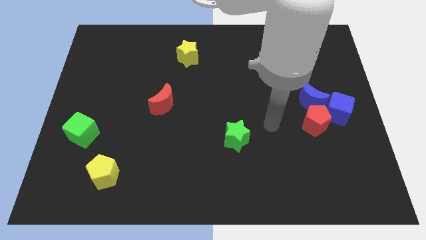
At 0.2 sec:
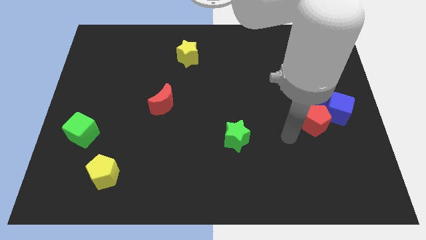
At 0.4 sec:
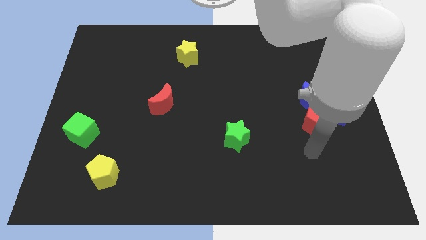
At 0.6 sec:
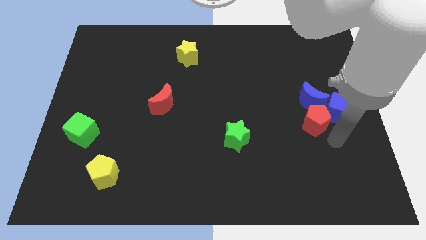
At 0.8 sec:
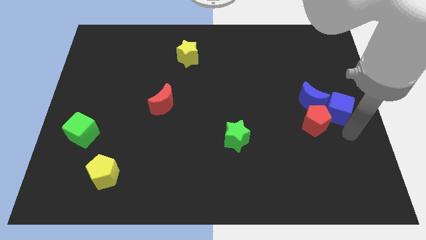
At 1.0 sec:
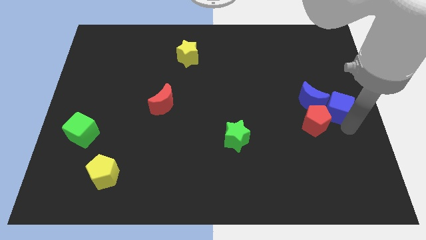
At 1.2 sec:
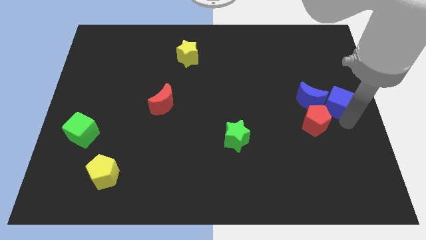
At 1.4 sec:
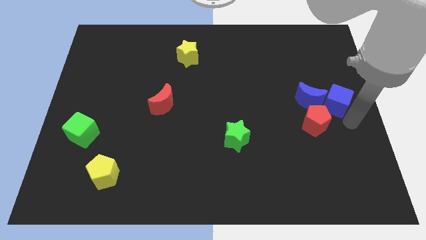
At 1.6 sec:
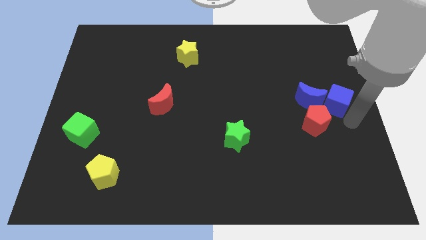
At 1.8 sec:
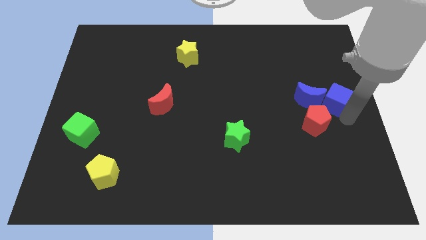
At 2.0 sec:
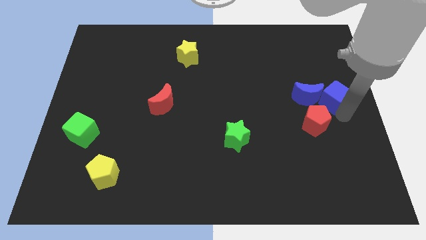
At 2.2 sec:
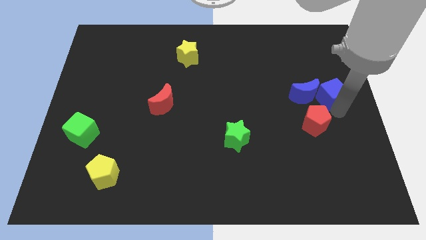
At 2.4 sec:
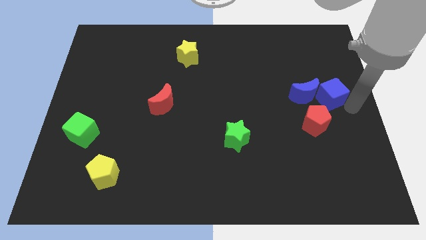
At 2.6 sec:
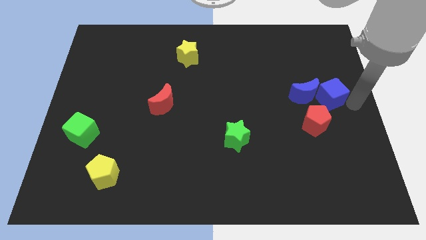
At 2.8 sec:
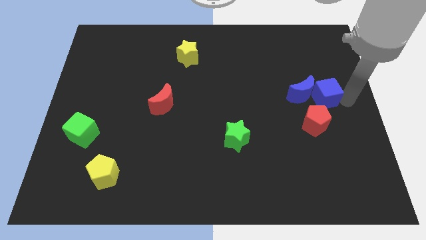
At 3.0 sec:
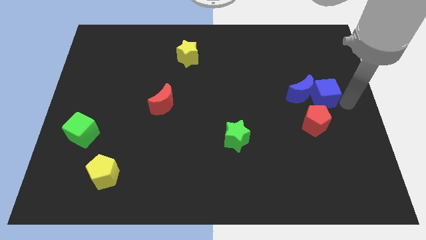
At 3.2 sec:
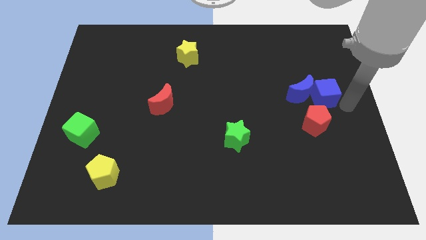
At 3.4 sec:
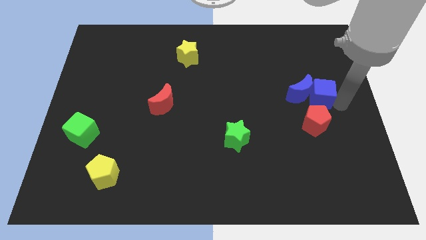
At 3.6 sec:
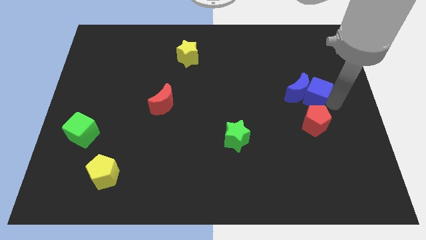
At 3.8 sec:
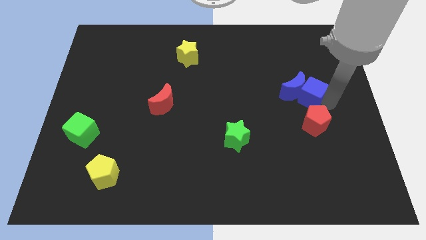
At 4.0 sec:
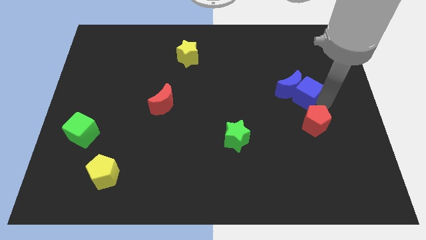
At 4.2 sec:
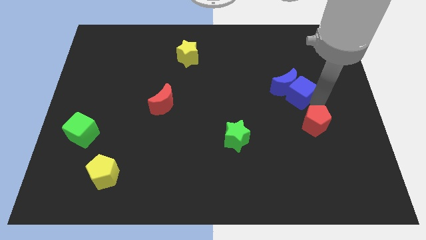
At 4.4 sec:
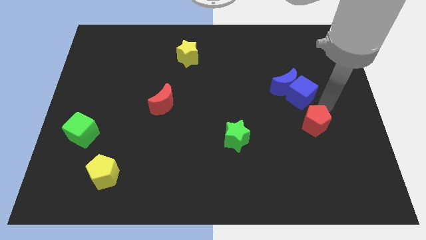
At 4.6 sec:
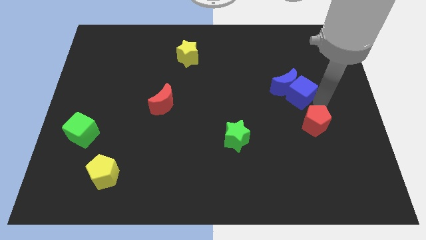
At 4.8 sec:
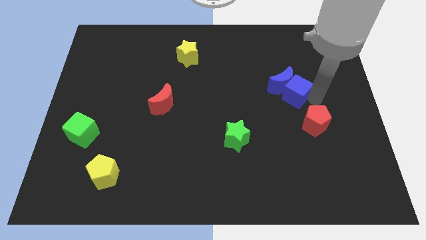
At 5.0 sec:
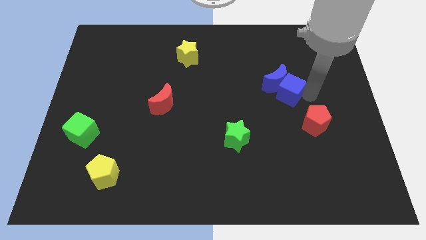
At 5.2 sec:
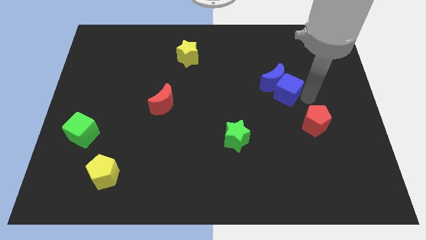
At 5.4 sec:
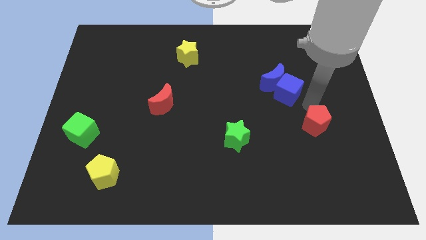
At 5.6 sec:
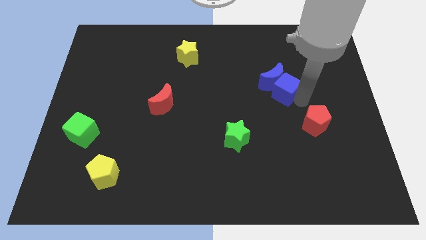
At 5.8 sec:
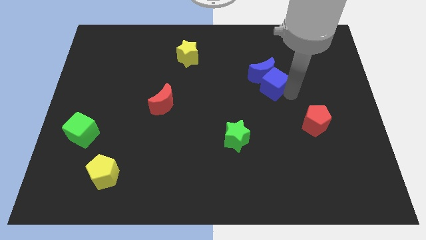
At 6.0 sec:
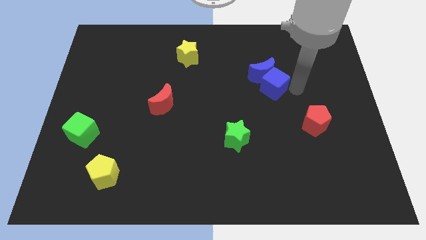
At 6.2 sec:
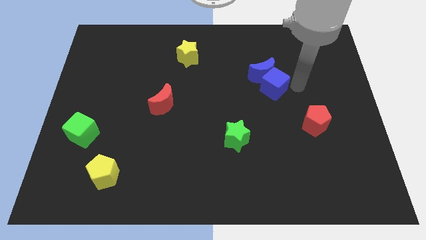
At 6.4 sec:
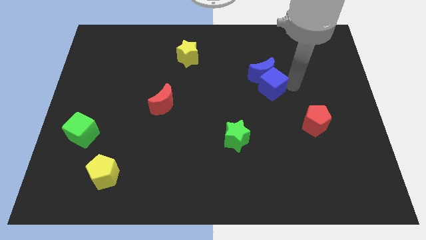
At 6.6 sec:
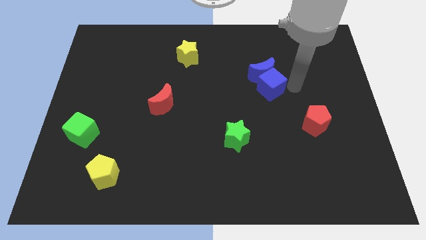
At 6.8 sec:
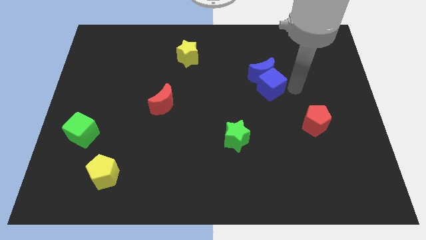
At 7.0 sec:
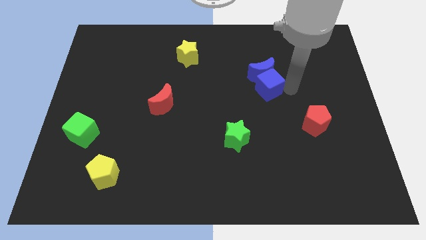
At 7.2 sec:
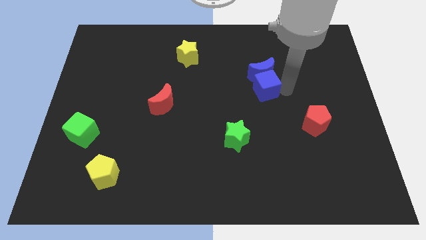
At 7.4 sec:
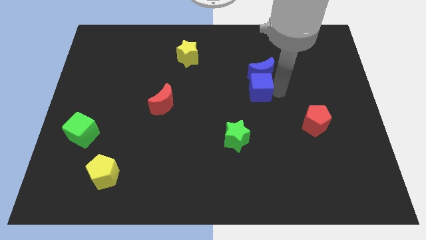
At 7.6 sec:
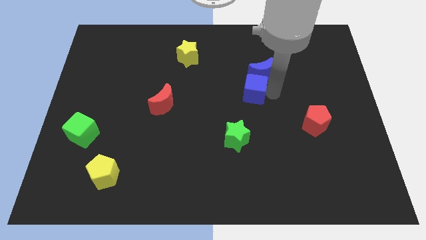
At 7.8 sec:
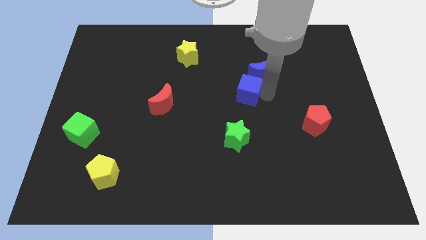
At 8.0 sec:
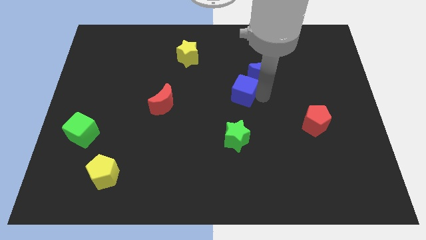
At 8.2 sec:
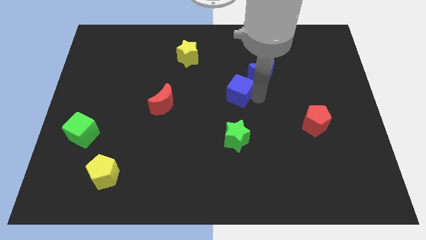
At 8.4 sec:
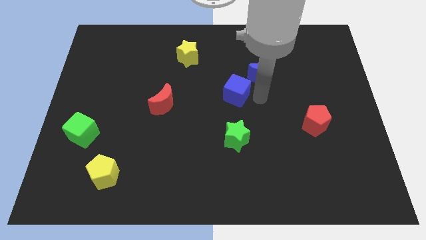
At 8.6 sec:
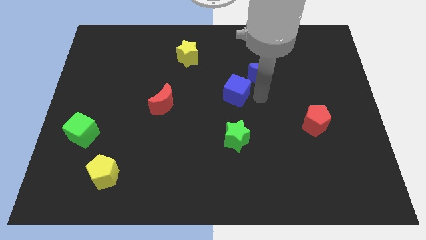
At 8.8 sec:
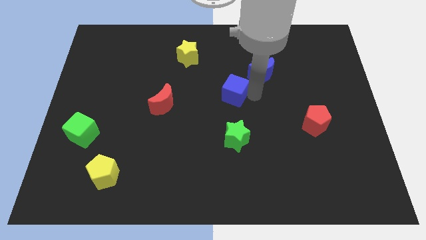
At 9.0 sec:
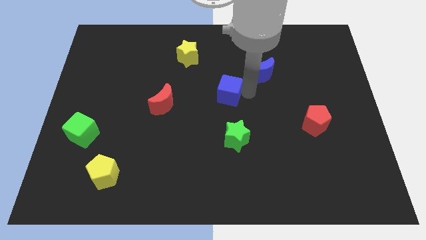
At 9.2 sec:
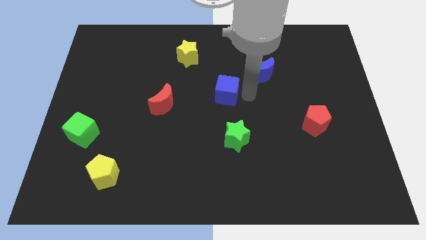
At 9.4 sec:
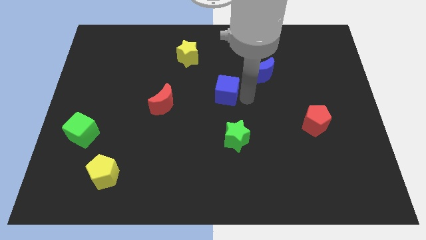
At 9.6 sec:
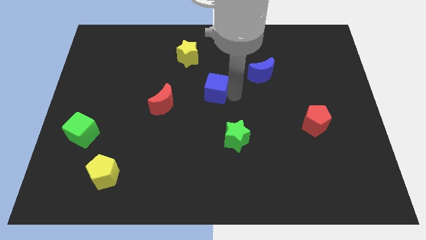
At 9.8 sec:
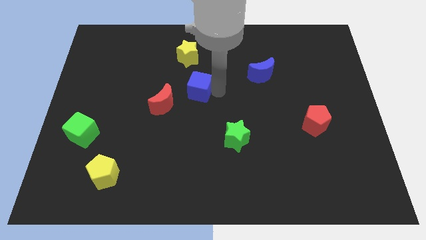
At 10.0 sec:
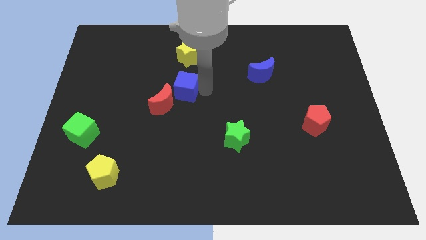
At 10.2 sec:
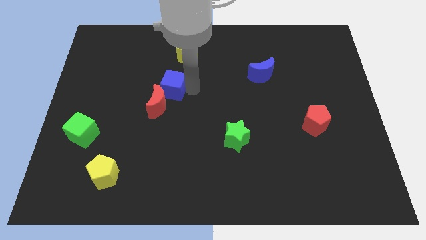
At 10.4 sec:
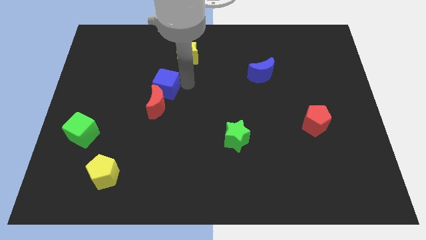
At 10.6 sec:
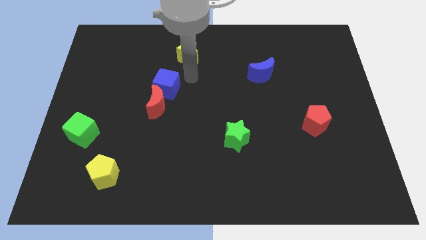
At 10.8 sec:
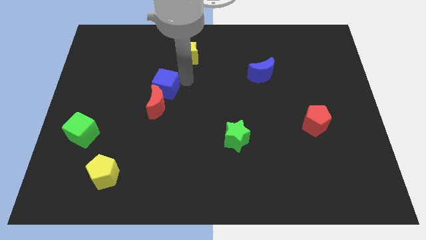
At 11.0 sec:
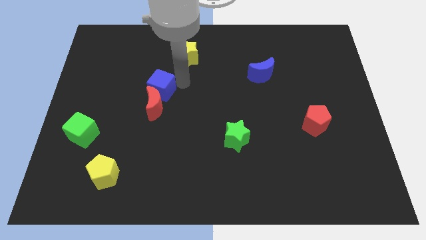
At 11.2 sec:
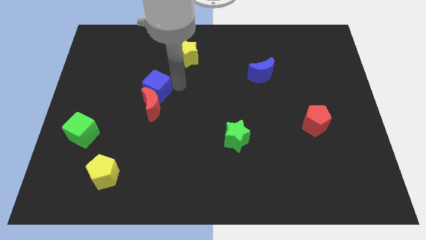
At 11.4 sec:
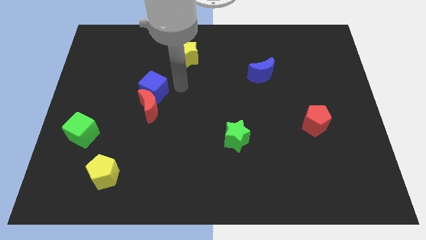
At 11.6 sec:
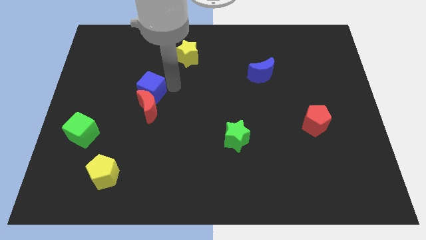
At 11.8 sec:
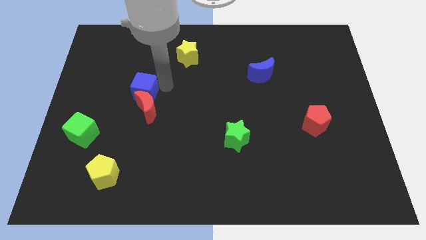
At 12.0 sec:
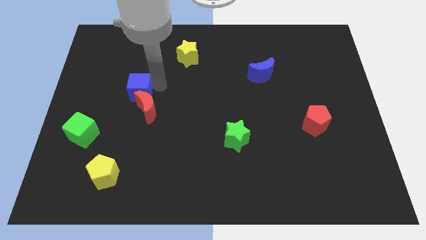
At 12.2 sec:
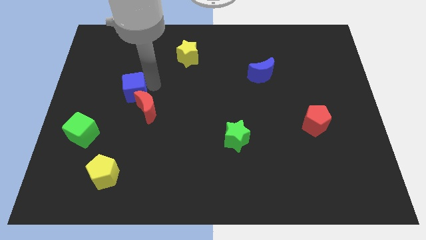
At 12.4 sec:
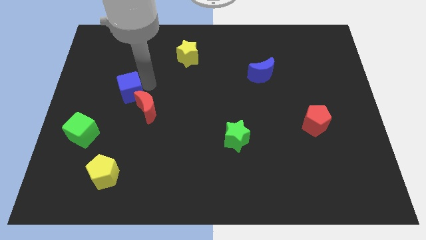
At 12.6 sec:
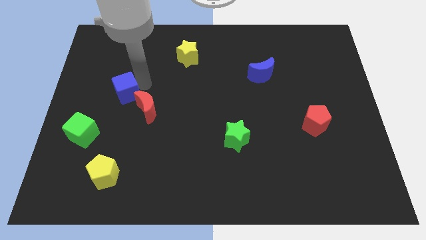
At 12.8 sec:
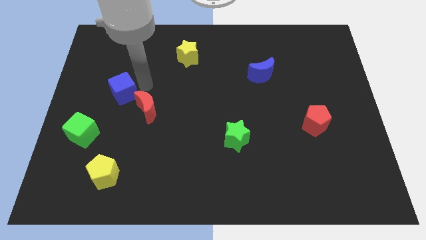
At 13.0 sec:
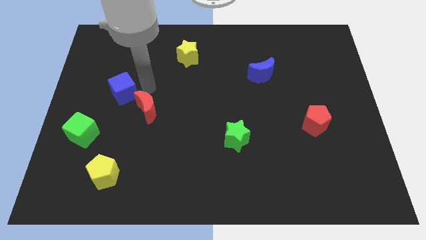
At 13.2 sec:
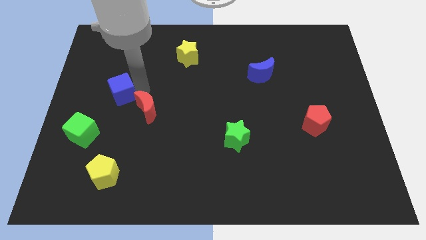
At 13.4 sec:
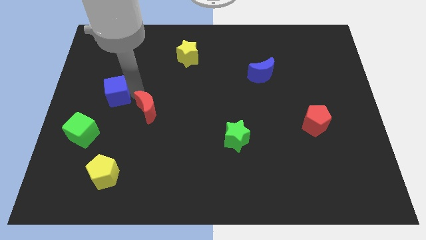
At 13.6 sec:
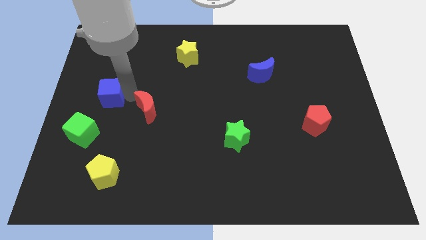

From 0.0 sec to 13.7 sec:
push the blue cube to the top of the green cube
